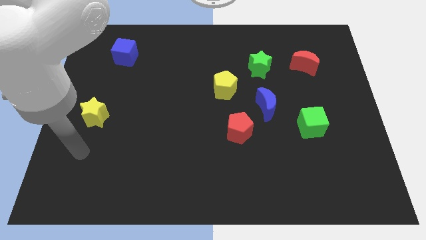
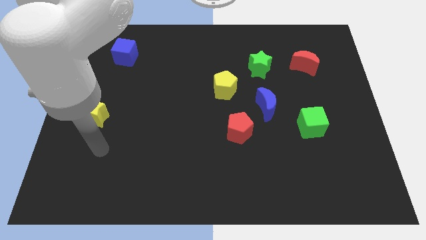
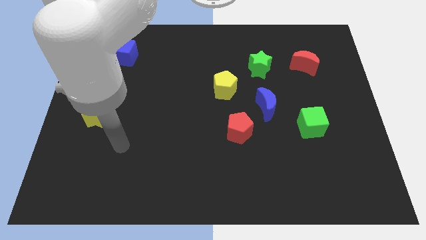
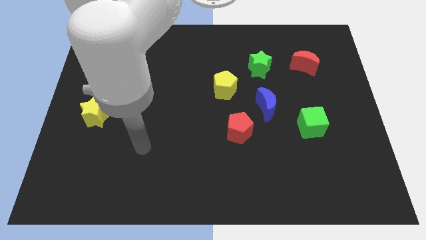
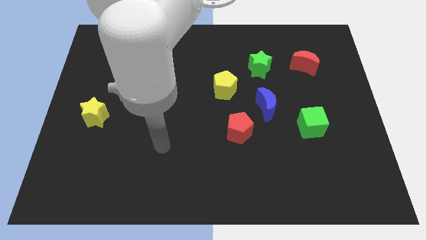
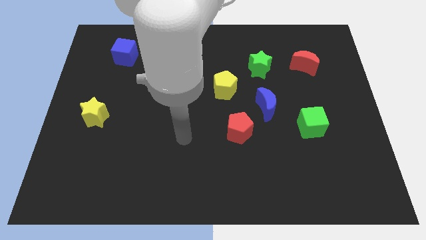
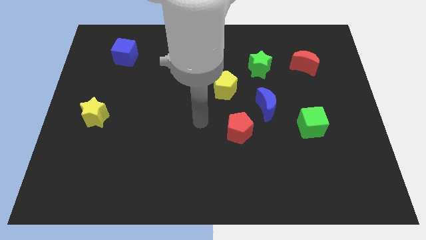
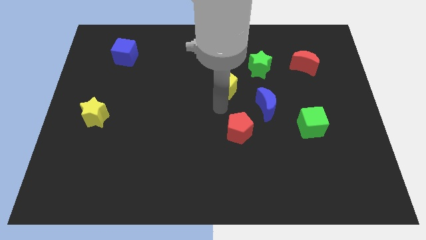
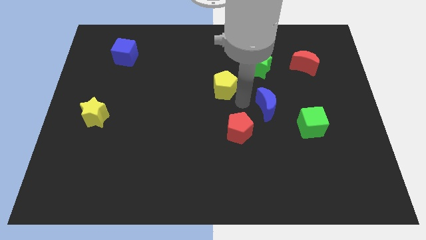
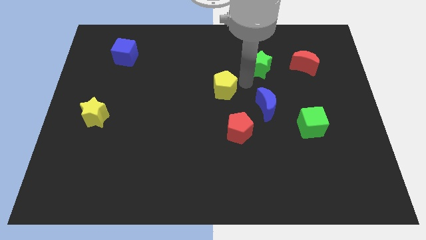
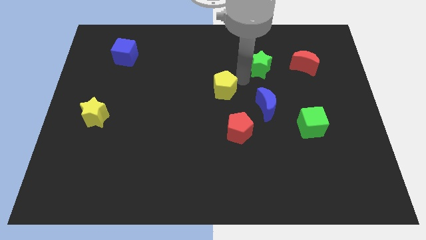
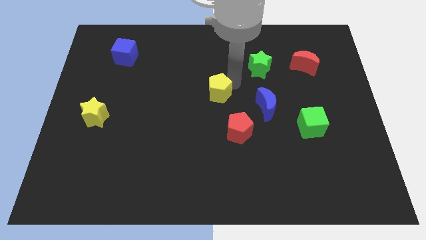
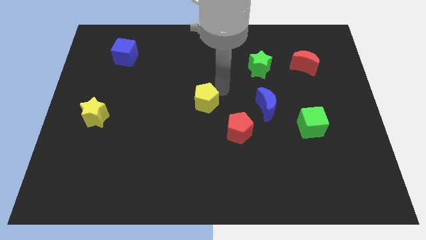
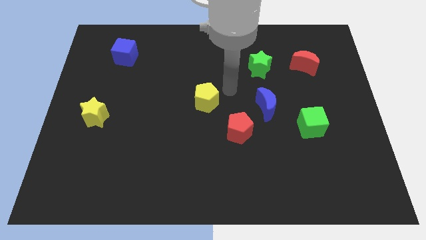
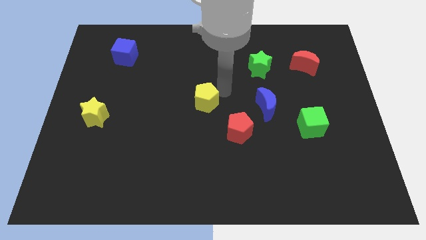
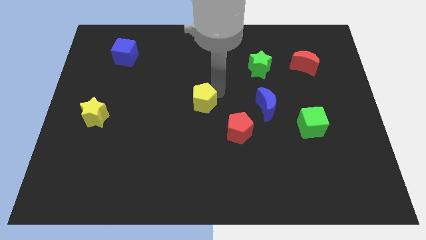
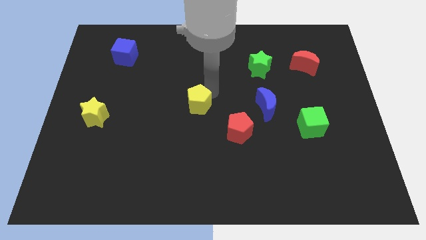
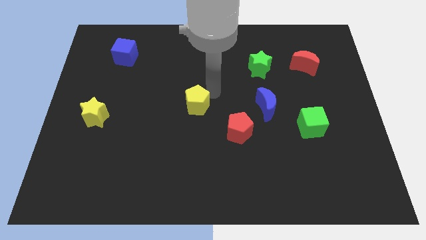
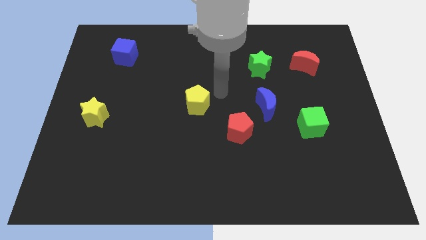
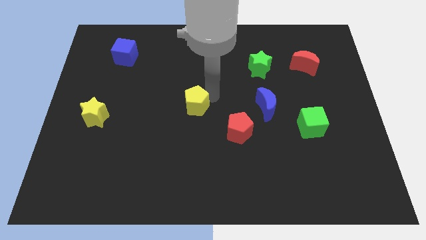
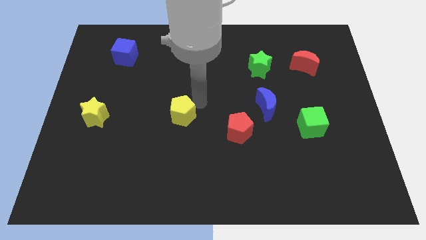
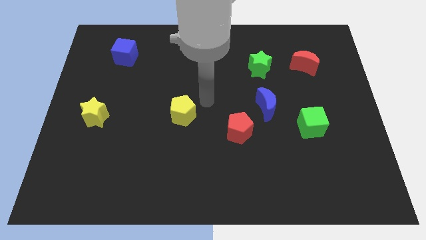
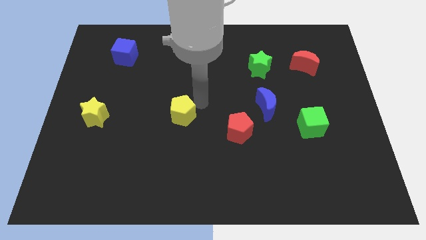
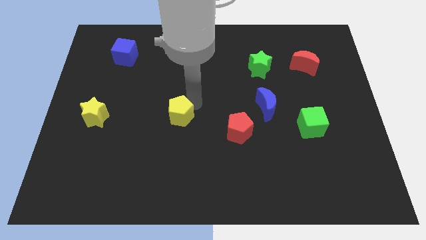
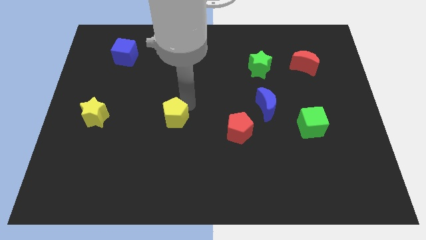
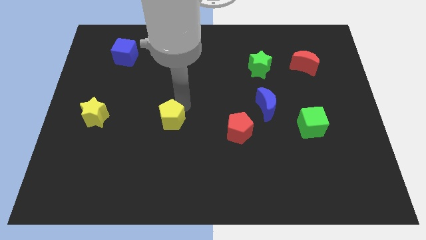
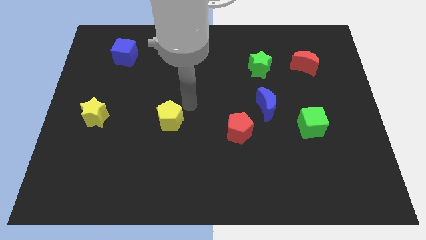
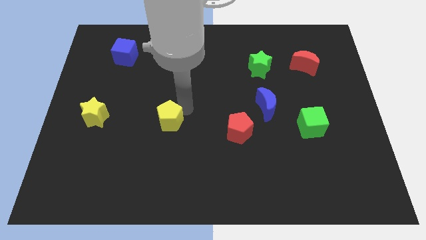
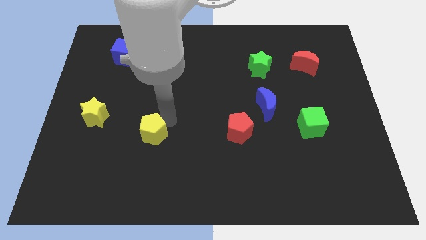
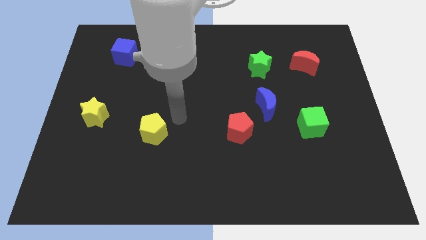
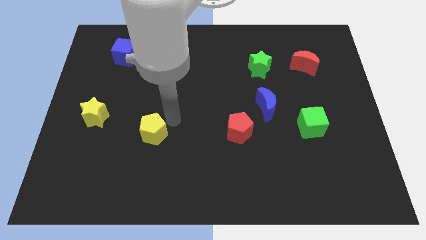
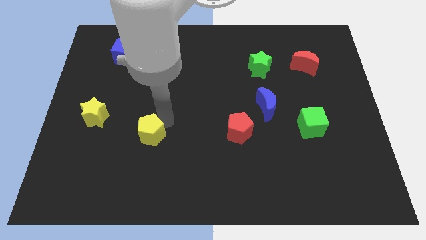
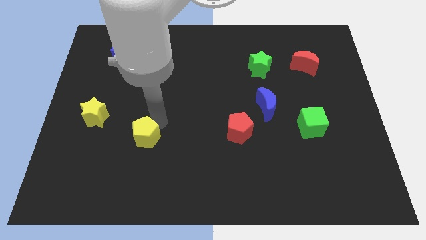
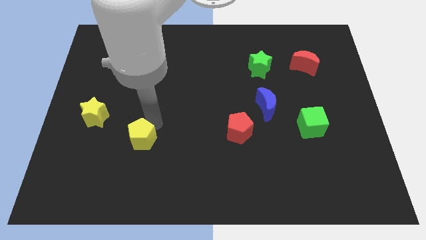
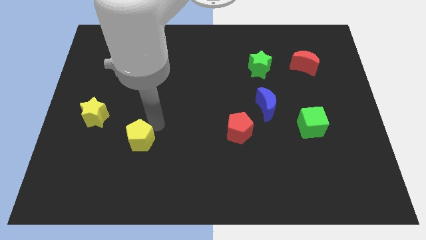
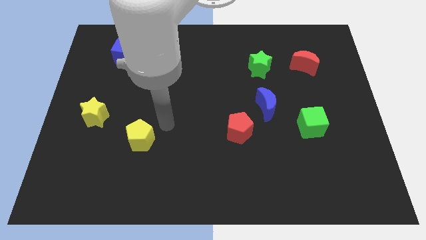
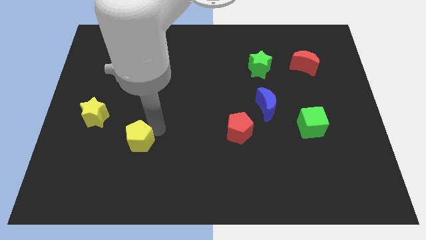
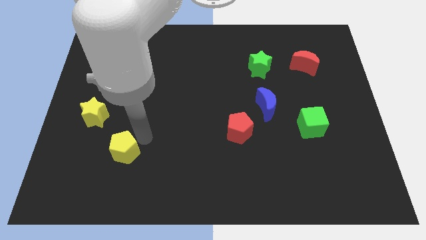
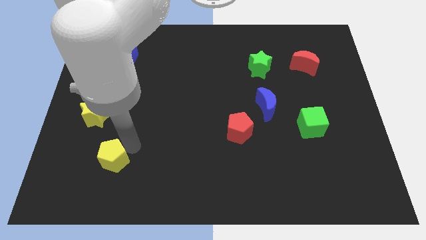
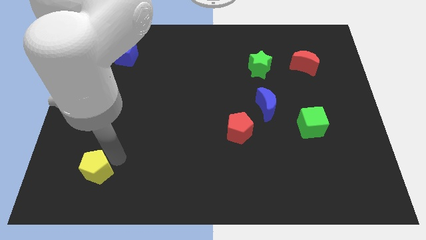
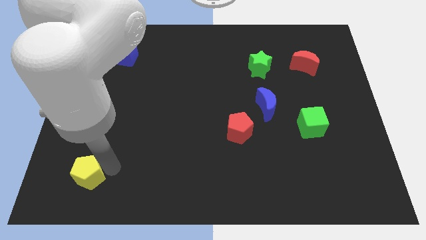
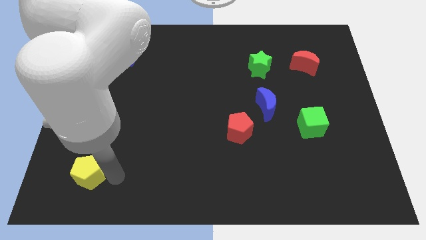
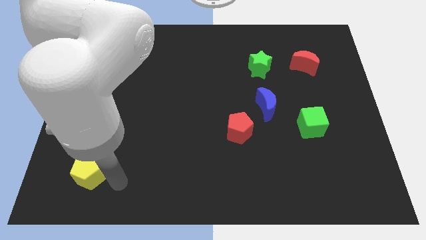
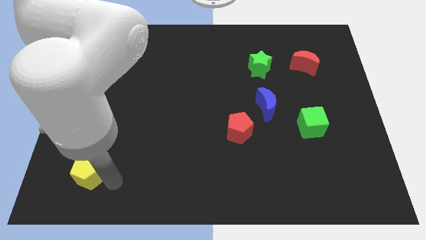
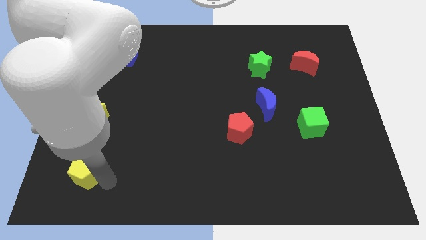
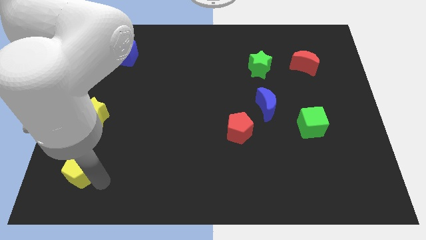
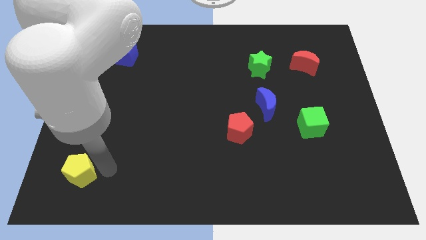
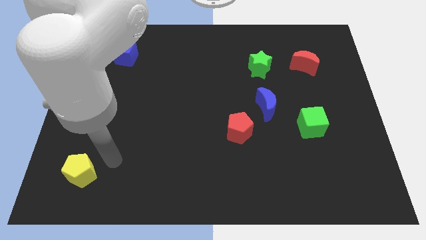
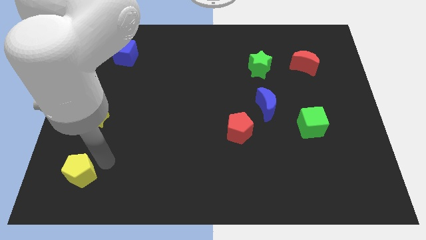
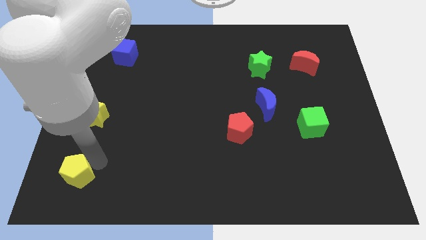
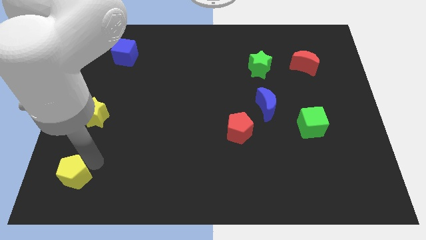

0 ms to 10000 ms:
push the yellow pentagon to the bottom left corner

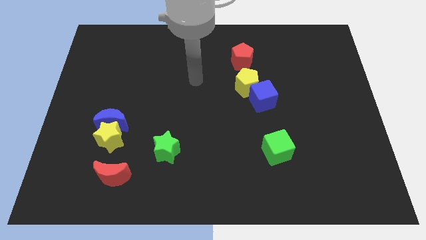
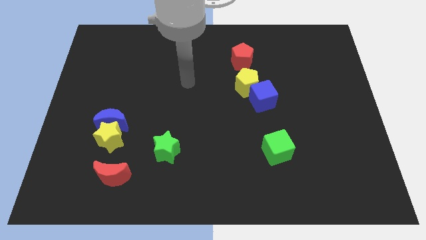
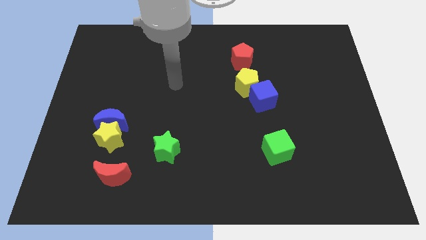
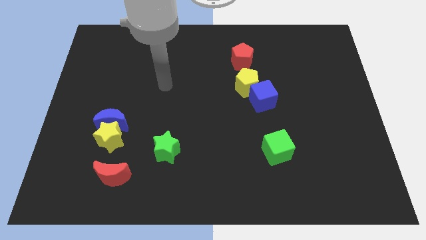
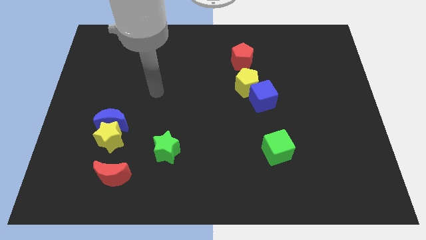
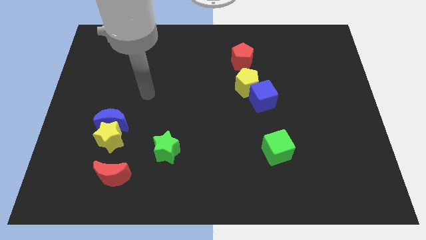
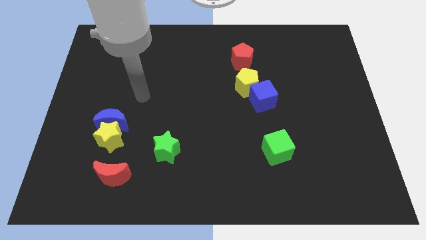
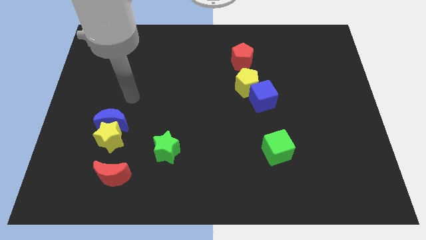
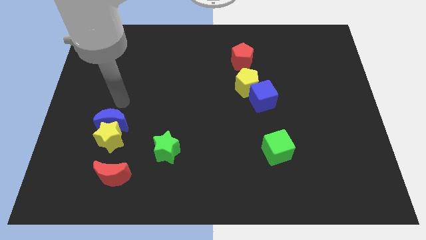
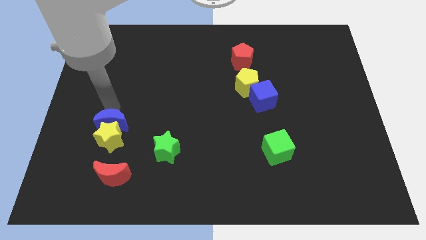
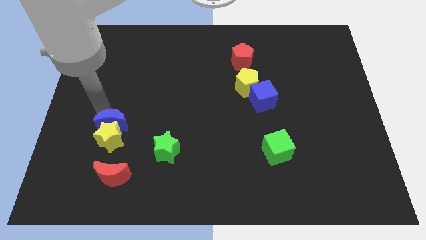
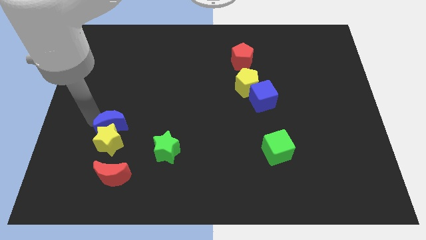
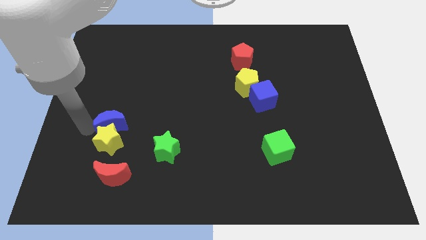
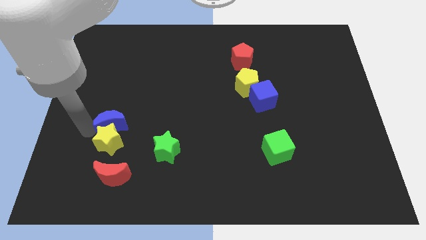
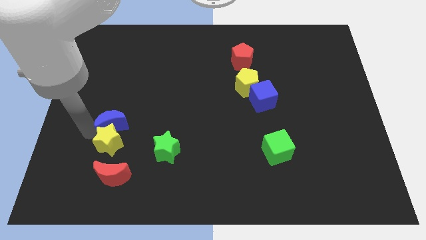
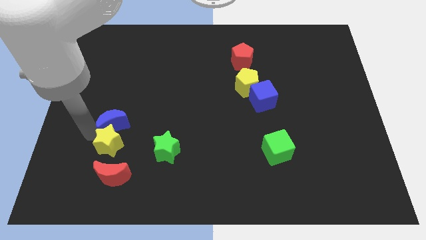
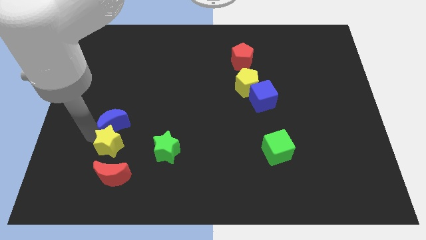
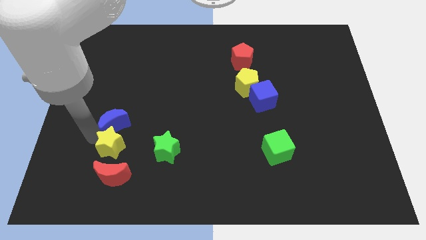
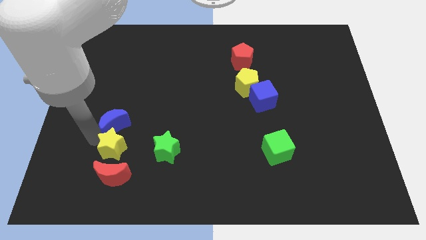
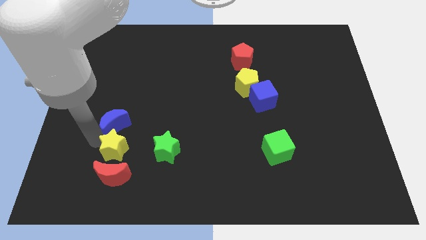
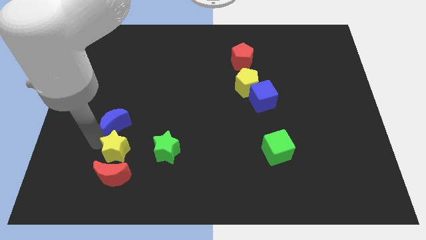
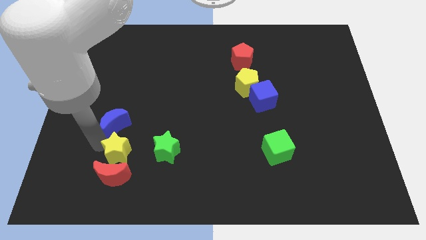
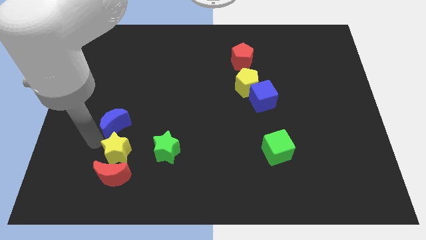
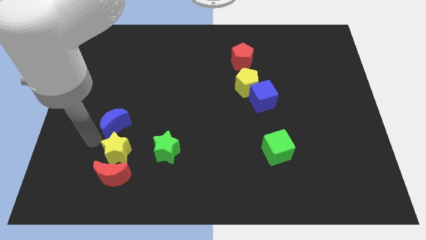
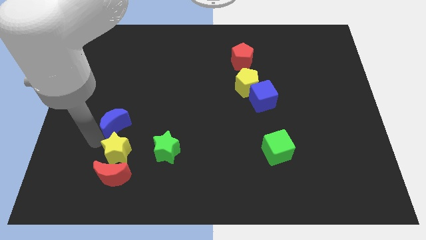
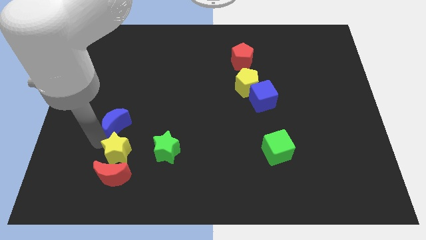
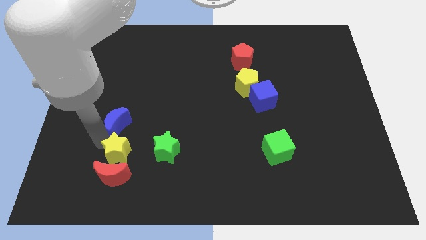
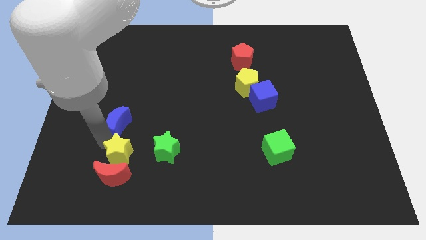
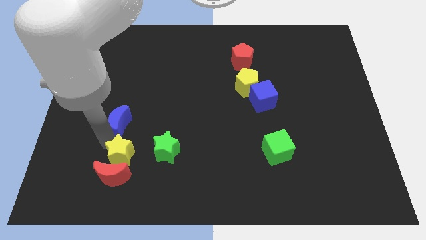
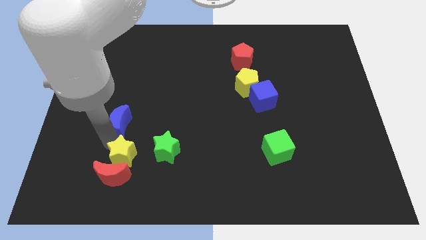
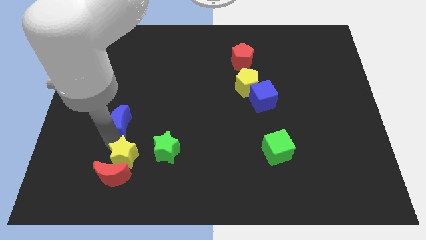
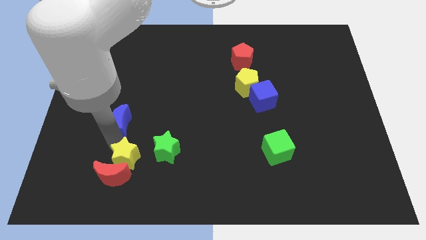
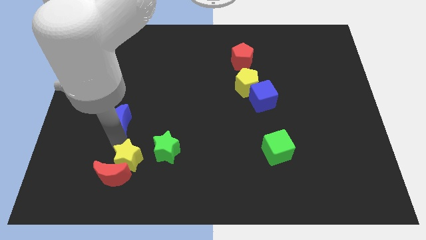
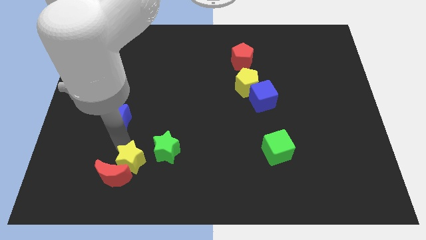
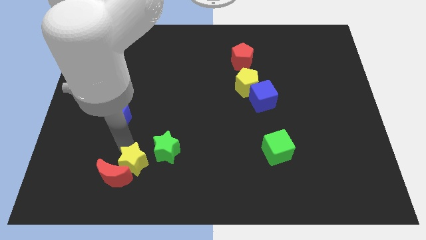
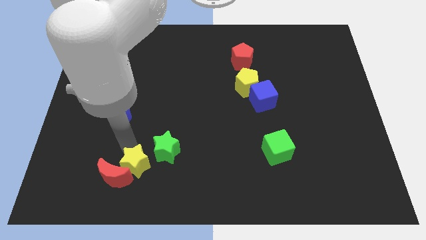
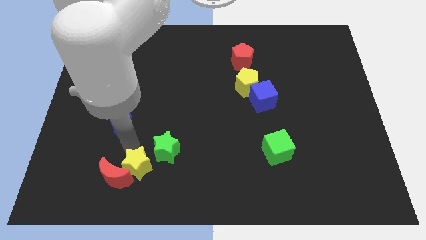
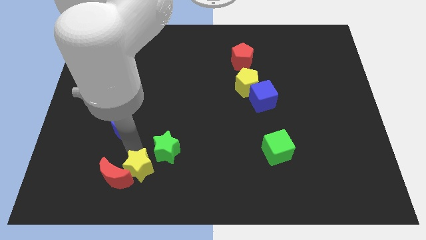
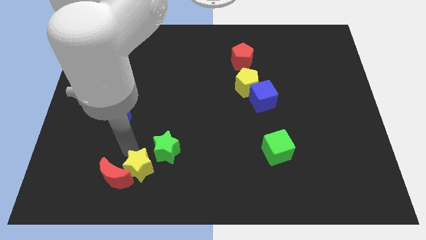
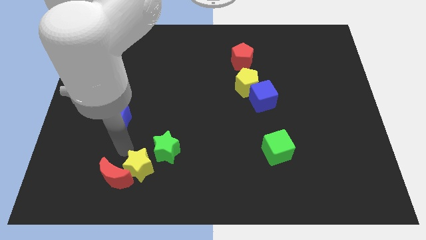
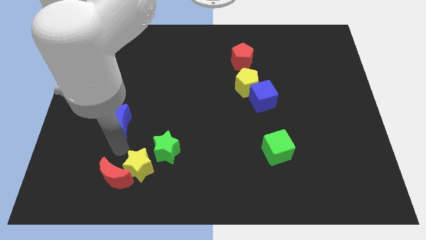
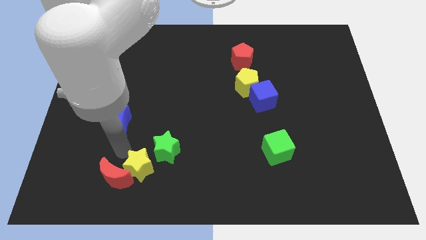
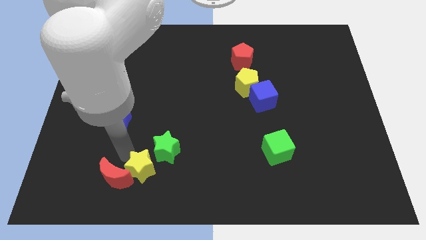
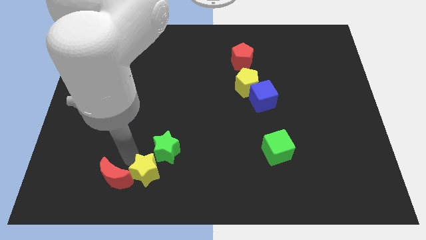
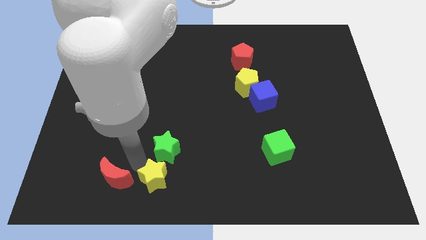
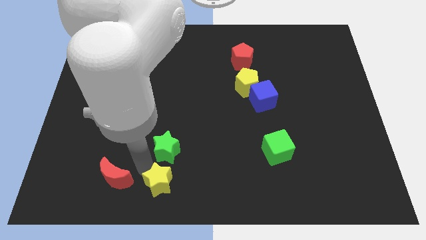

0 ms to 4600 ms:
push the yellow star to the bottom side
